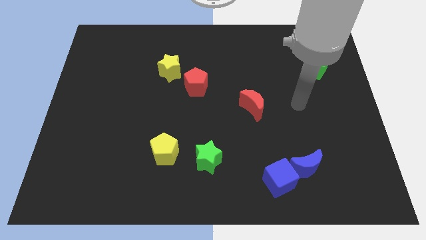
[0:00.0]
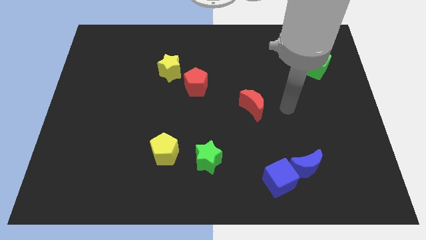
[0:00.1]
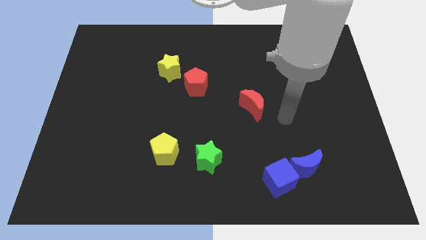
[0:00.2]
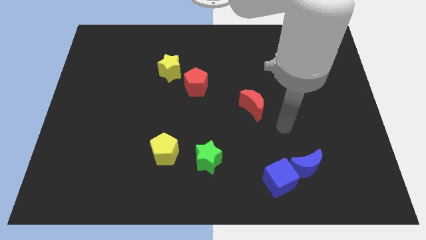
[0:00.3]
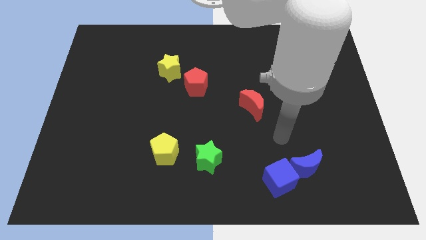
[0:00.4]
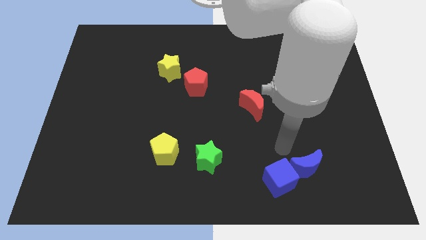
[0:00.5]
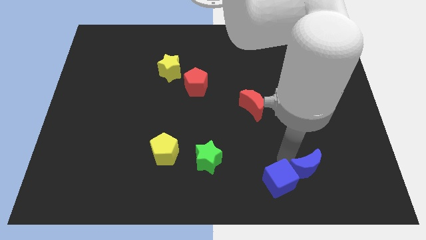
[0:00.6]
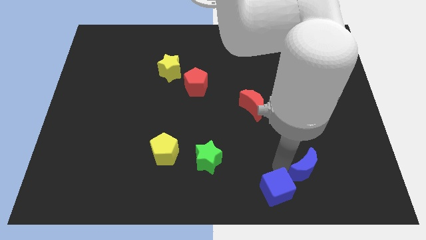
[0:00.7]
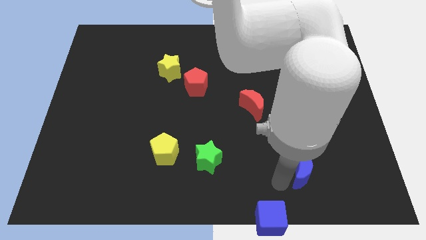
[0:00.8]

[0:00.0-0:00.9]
pull the blue moon apart from the blue cube

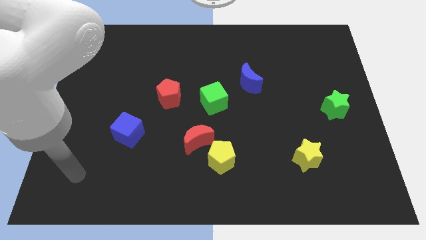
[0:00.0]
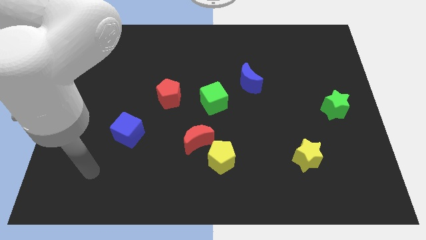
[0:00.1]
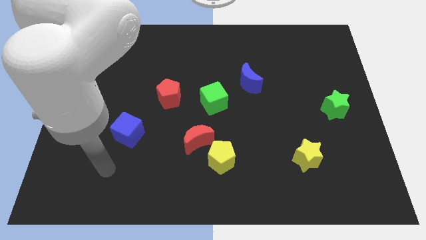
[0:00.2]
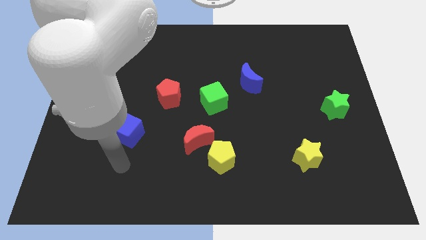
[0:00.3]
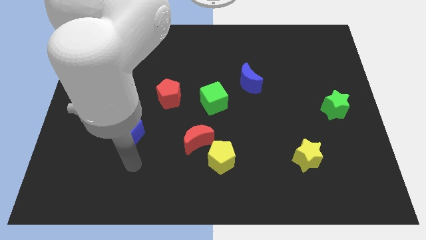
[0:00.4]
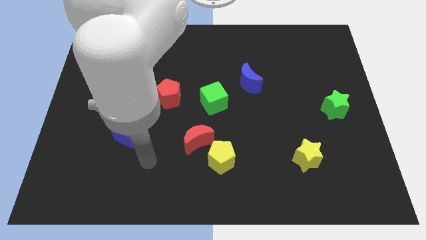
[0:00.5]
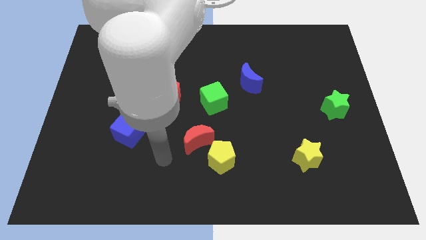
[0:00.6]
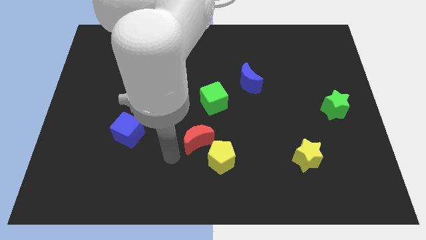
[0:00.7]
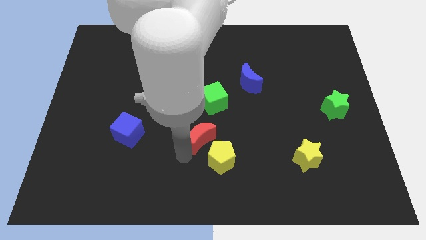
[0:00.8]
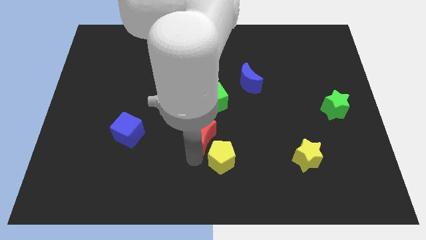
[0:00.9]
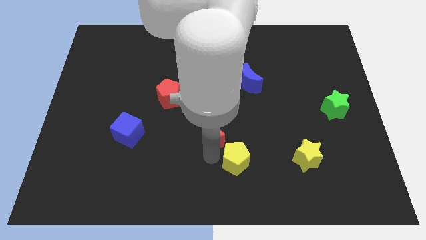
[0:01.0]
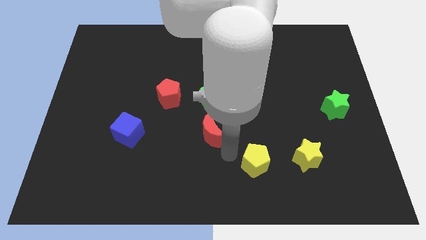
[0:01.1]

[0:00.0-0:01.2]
pull the red moon apart from the yellow pentagon

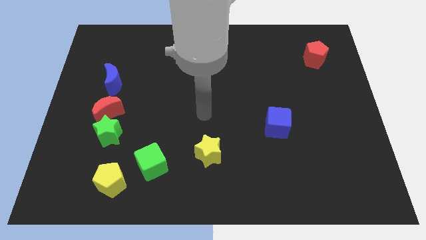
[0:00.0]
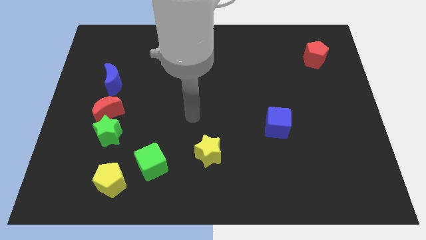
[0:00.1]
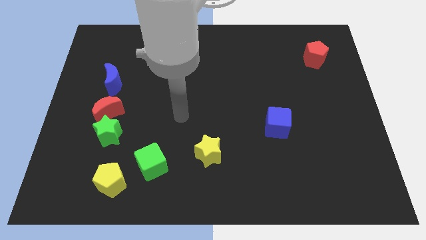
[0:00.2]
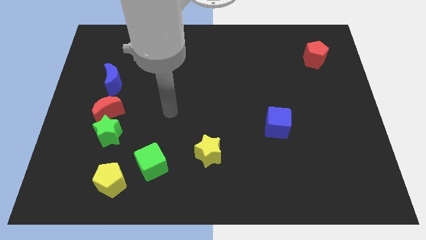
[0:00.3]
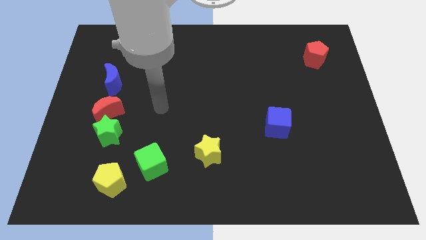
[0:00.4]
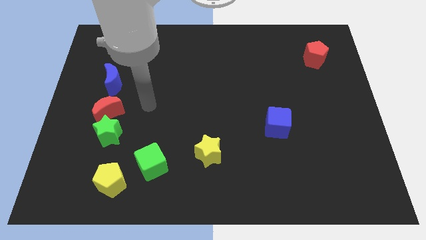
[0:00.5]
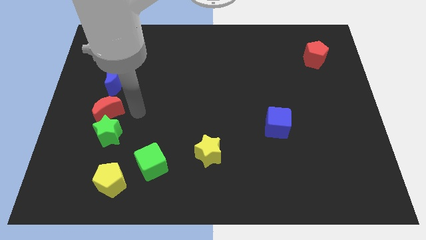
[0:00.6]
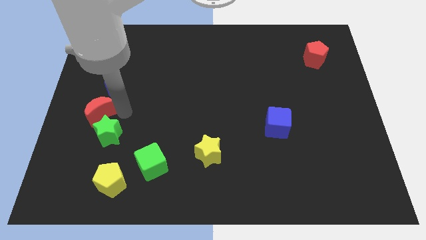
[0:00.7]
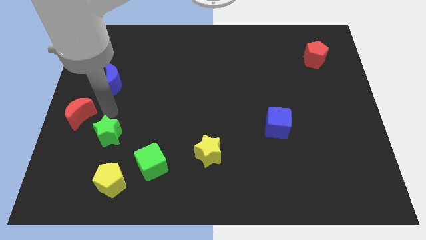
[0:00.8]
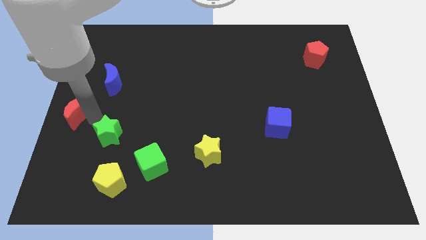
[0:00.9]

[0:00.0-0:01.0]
pull the green star apart from the red moon

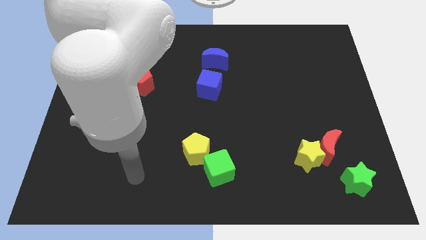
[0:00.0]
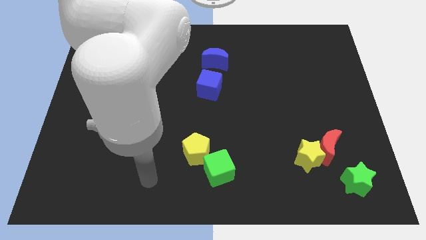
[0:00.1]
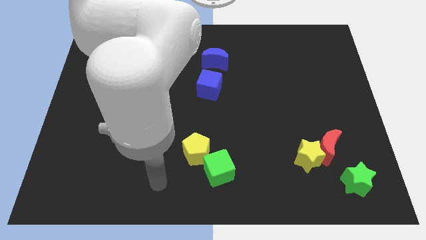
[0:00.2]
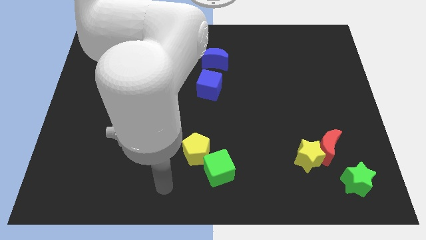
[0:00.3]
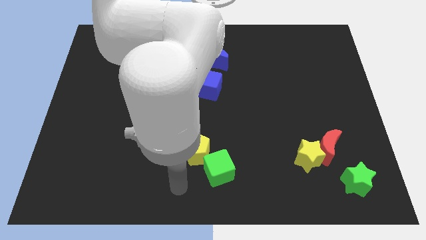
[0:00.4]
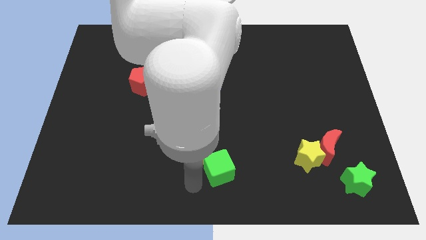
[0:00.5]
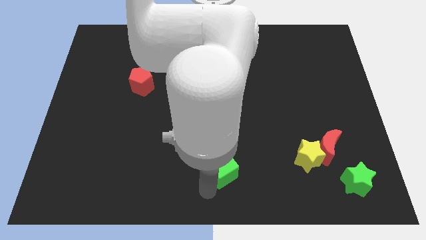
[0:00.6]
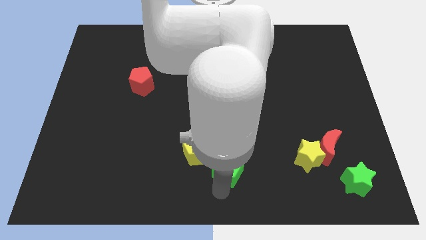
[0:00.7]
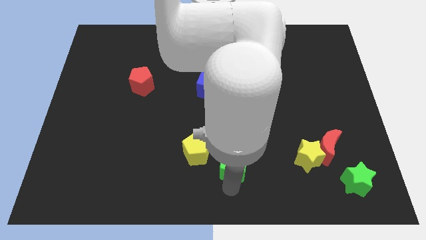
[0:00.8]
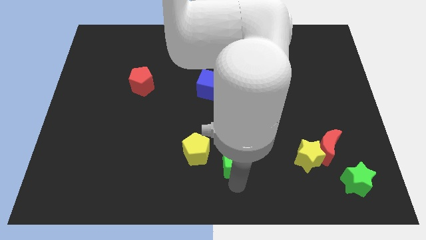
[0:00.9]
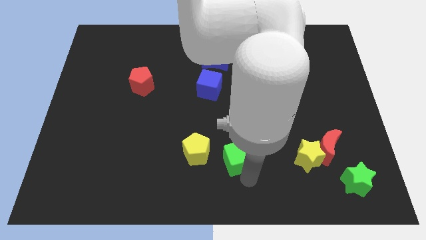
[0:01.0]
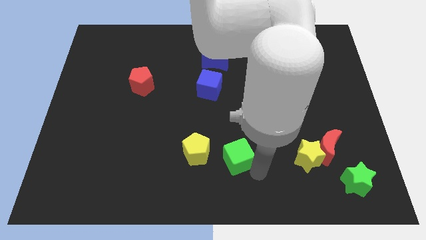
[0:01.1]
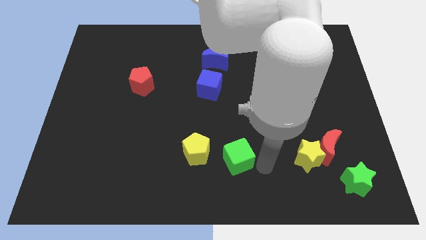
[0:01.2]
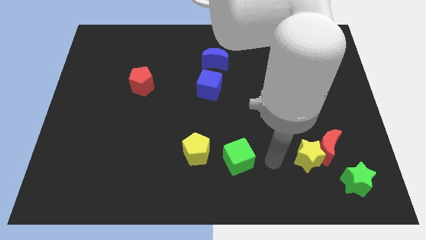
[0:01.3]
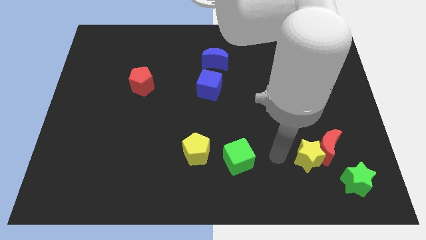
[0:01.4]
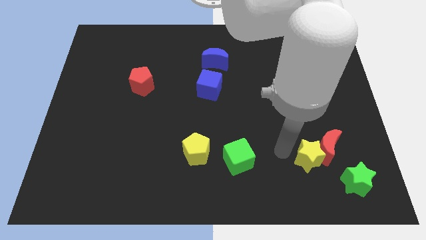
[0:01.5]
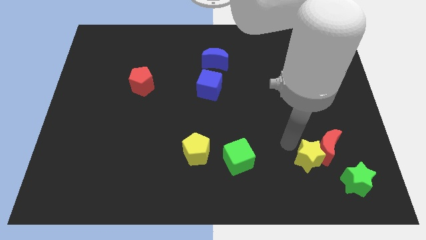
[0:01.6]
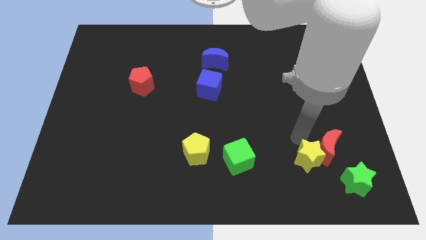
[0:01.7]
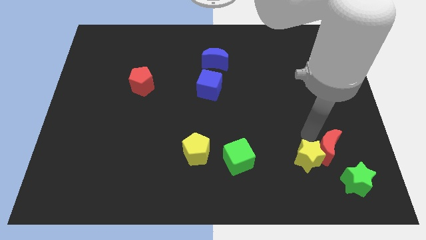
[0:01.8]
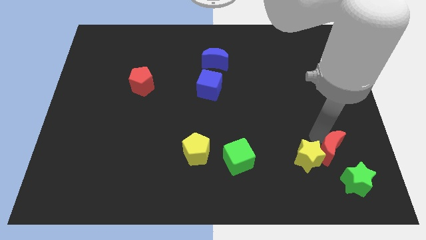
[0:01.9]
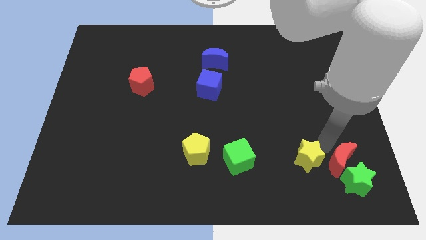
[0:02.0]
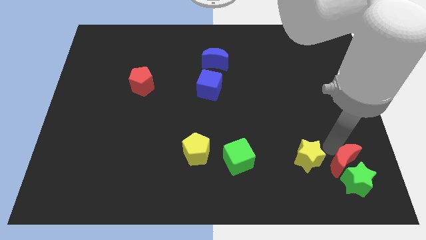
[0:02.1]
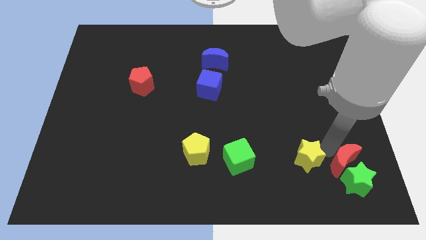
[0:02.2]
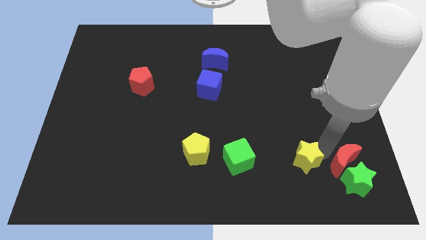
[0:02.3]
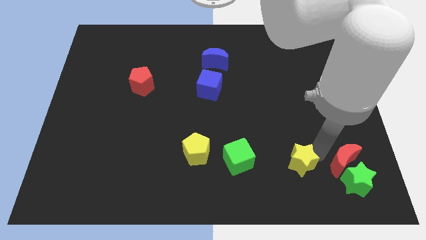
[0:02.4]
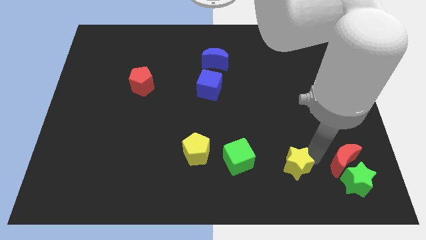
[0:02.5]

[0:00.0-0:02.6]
pull the yellow star apart from the red moon

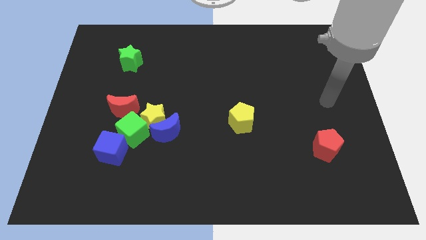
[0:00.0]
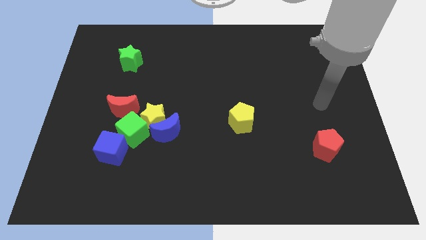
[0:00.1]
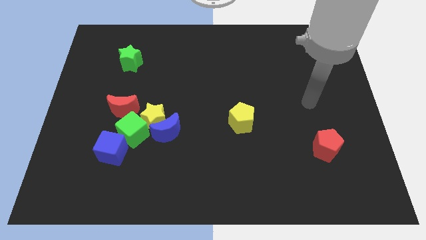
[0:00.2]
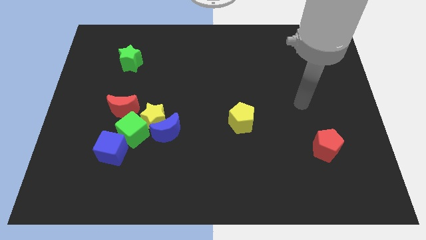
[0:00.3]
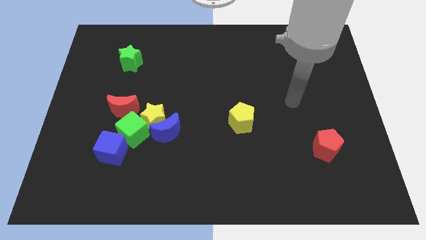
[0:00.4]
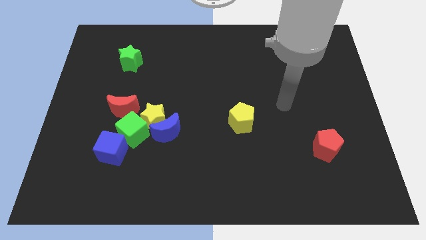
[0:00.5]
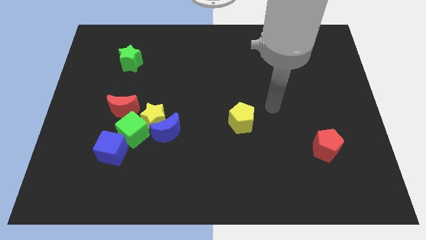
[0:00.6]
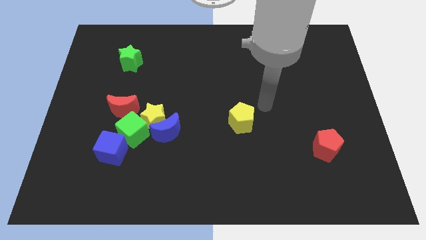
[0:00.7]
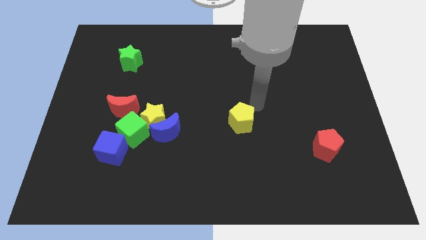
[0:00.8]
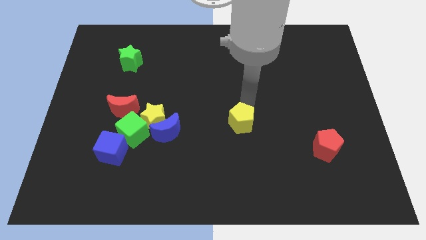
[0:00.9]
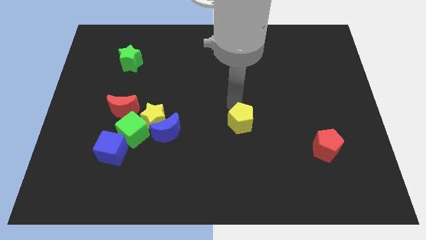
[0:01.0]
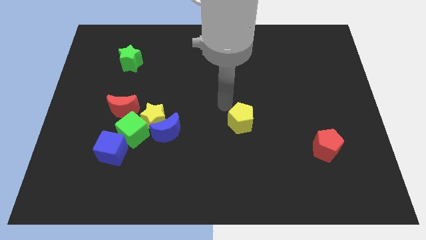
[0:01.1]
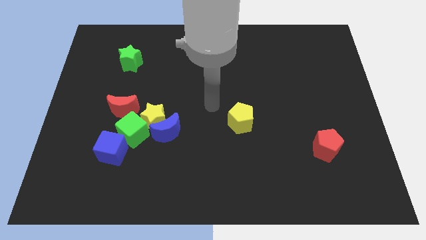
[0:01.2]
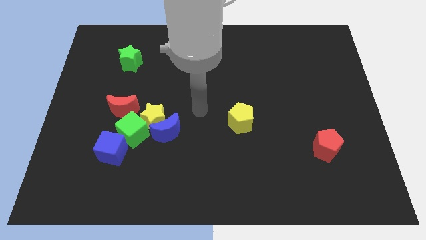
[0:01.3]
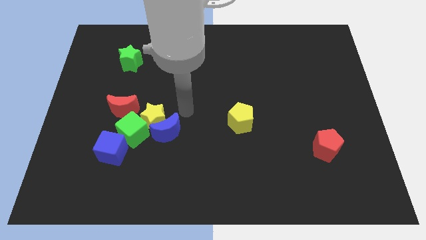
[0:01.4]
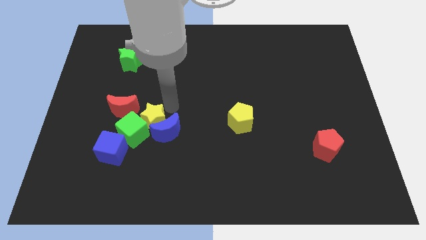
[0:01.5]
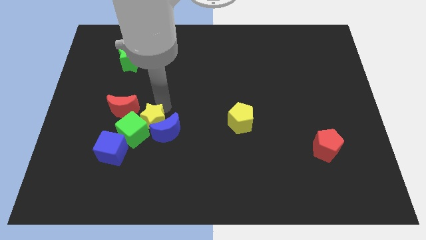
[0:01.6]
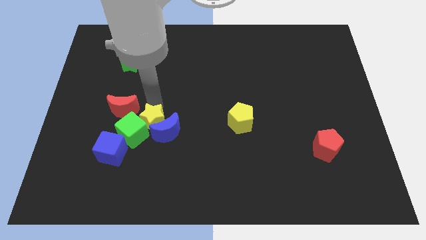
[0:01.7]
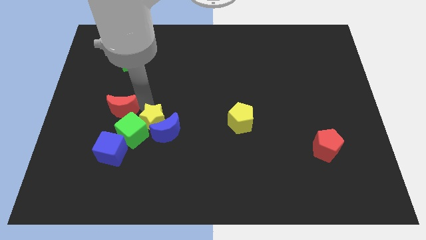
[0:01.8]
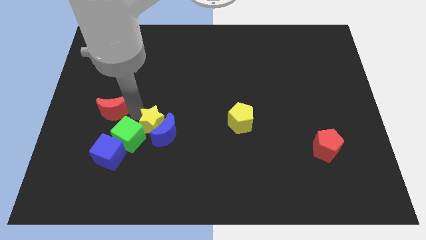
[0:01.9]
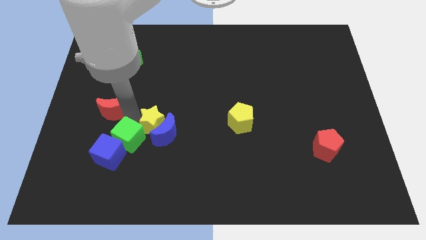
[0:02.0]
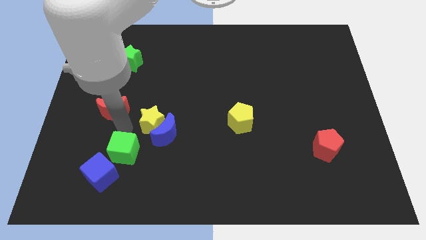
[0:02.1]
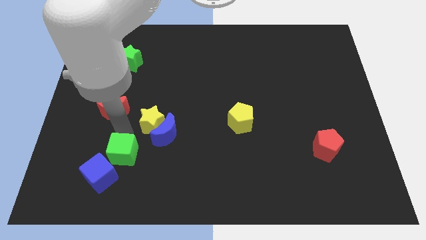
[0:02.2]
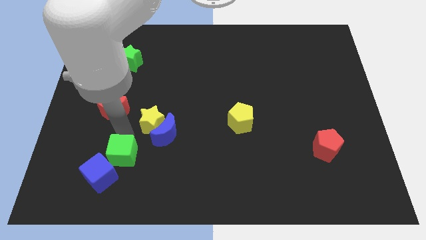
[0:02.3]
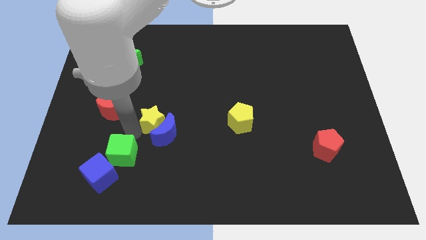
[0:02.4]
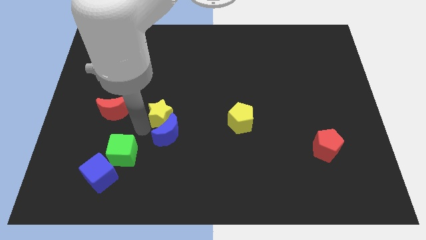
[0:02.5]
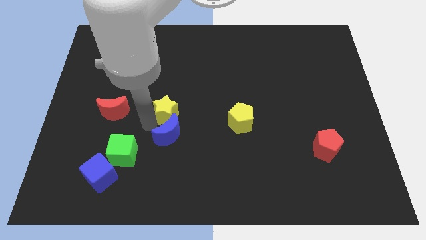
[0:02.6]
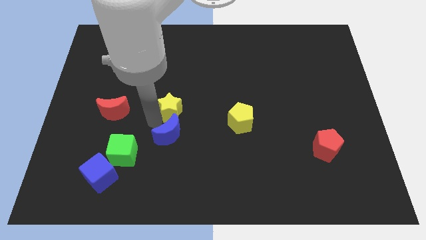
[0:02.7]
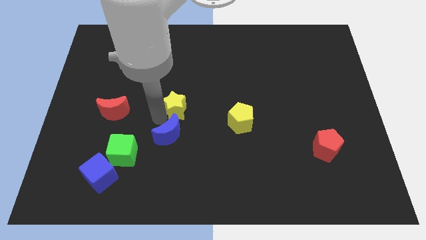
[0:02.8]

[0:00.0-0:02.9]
pull the yellow star apart from the group of blocks

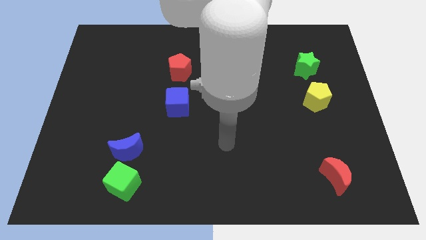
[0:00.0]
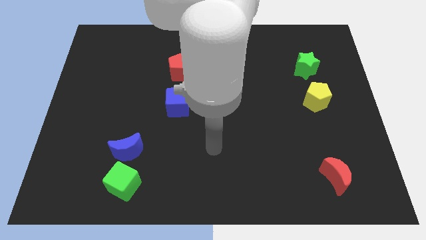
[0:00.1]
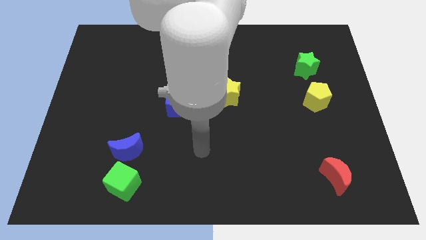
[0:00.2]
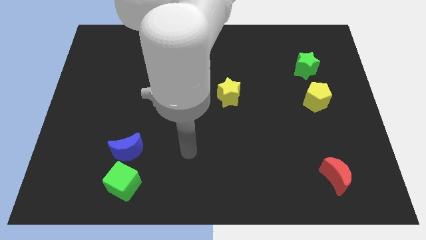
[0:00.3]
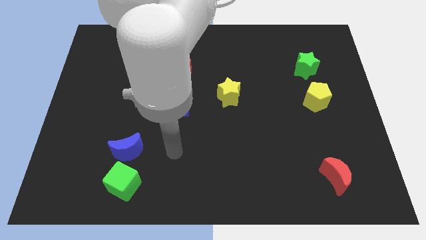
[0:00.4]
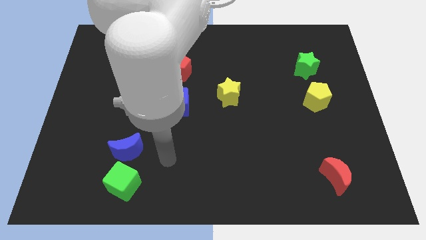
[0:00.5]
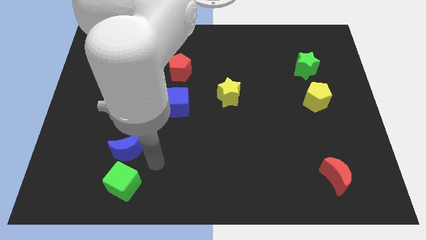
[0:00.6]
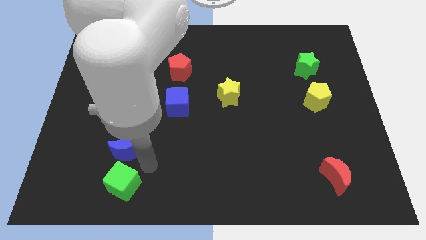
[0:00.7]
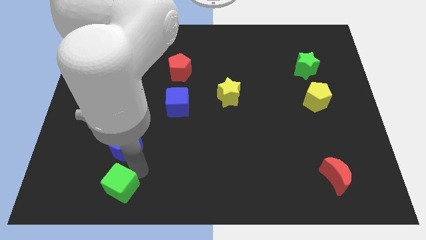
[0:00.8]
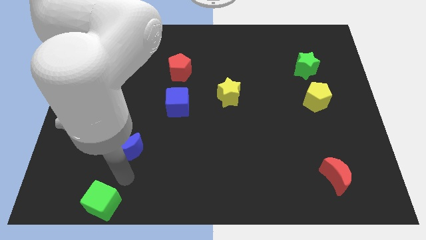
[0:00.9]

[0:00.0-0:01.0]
separate the blue moon from the green cube
